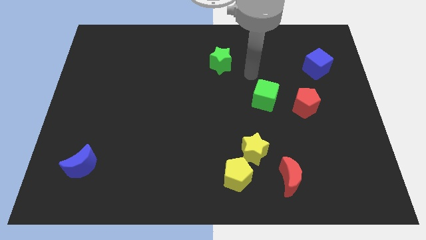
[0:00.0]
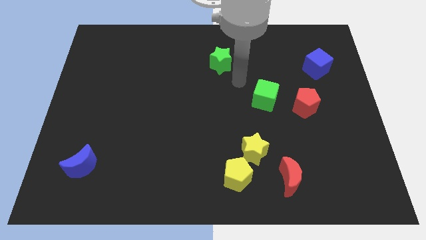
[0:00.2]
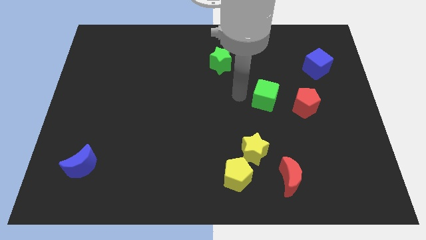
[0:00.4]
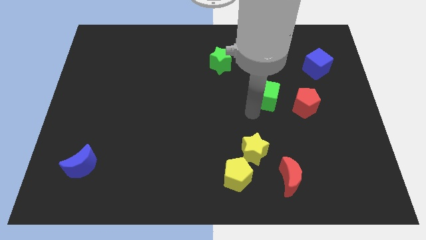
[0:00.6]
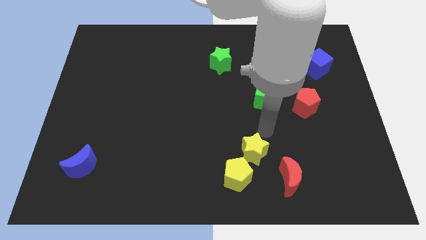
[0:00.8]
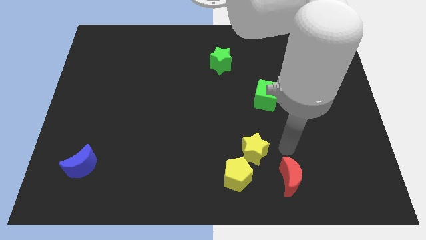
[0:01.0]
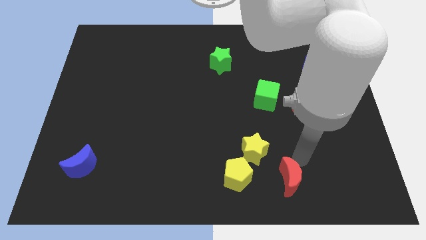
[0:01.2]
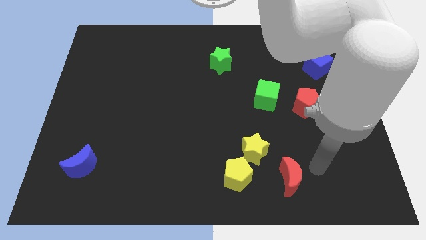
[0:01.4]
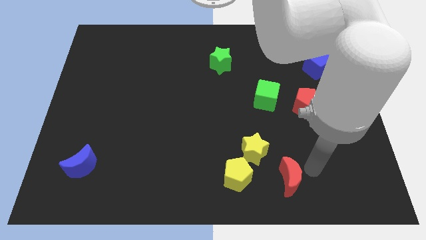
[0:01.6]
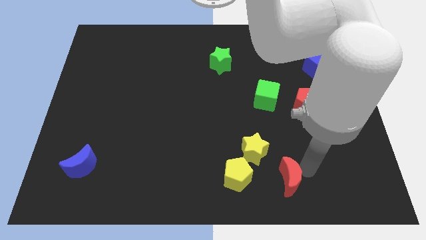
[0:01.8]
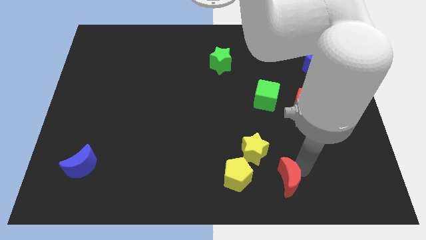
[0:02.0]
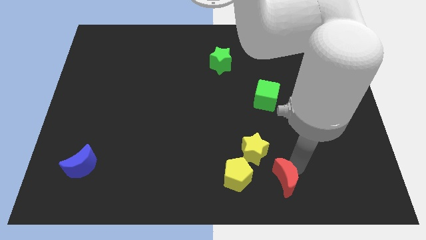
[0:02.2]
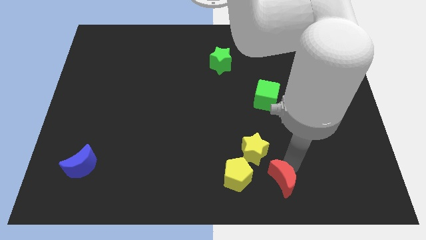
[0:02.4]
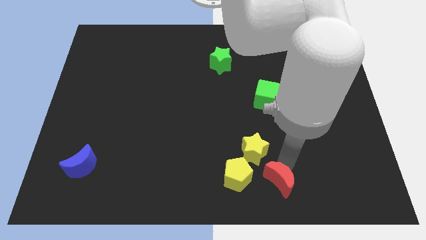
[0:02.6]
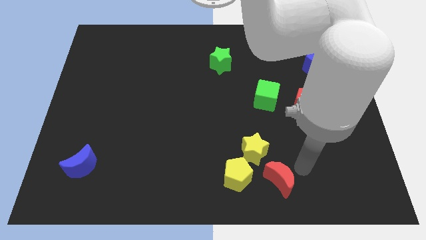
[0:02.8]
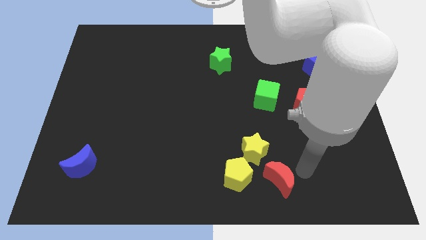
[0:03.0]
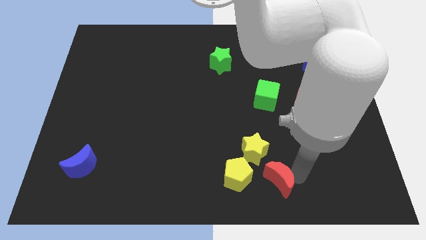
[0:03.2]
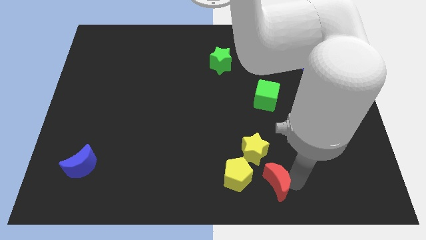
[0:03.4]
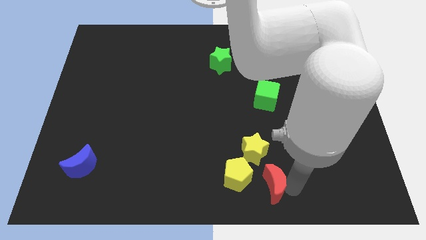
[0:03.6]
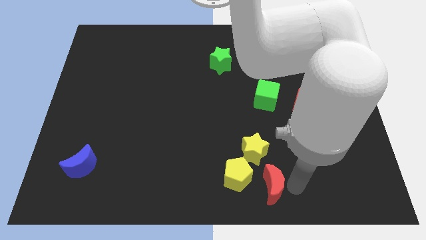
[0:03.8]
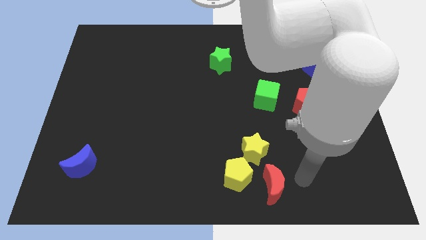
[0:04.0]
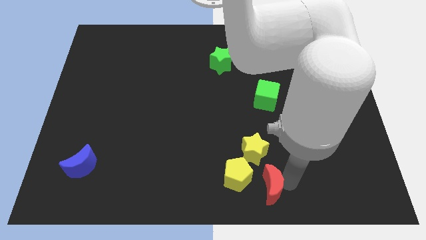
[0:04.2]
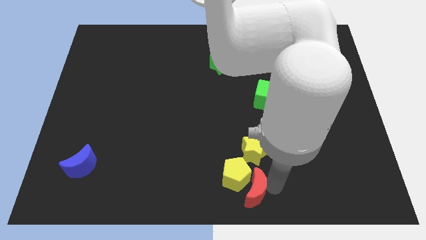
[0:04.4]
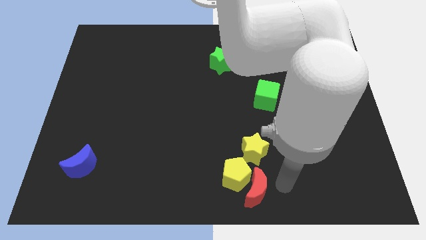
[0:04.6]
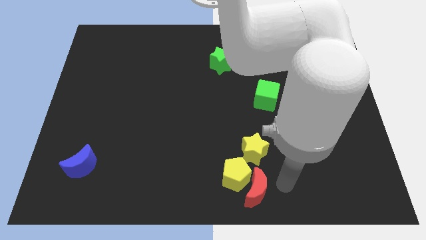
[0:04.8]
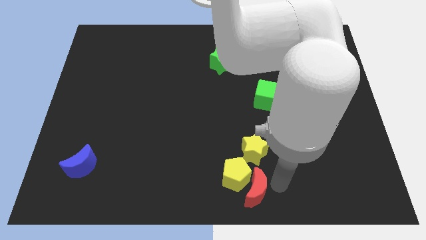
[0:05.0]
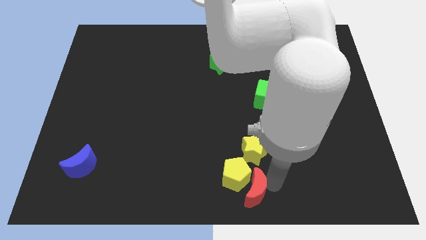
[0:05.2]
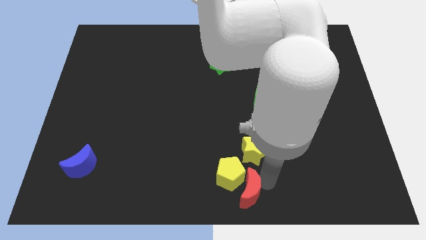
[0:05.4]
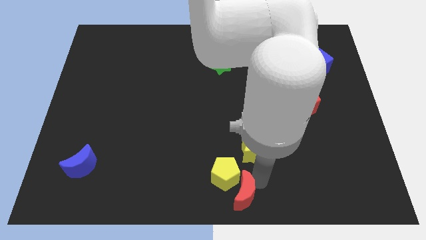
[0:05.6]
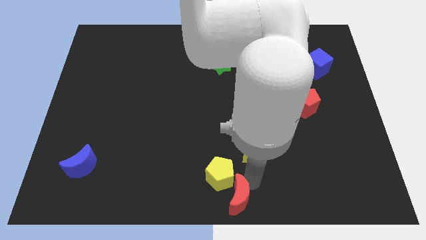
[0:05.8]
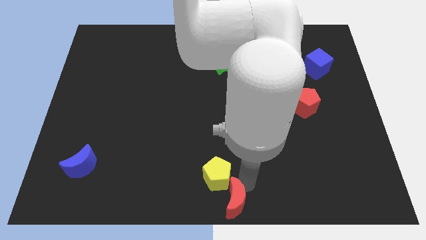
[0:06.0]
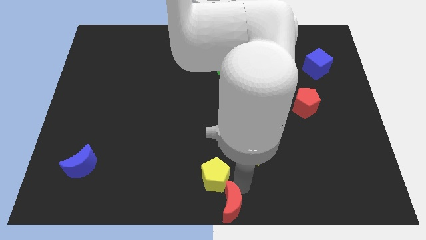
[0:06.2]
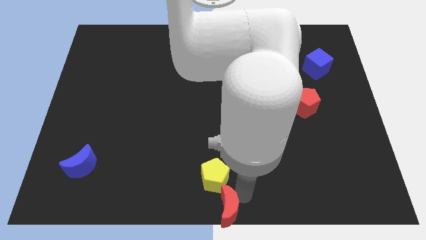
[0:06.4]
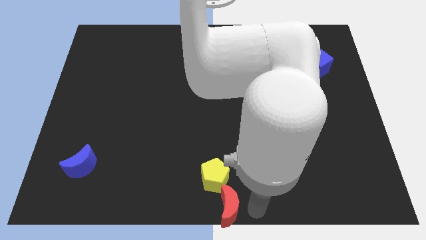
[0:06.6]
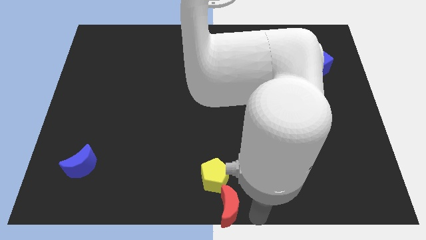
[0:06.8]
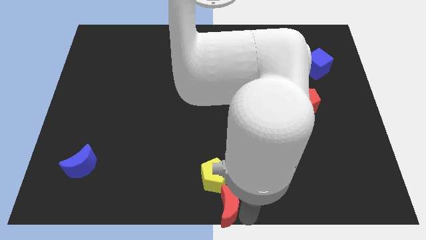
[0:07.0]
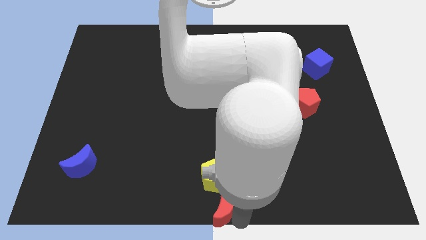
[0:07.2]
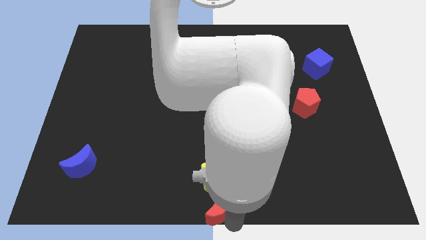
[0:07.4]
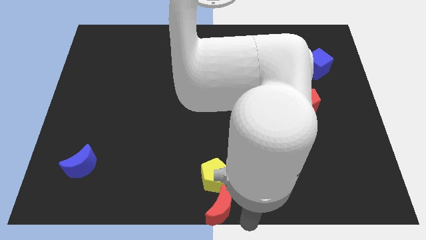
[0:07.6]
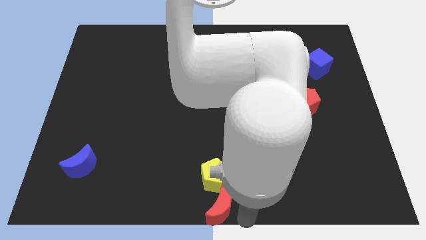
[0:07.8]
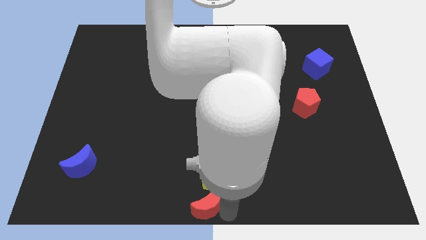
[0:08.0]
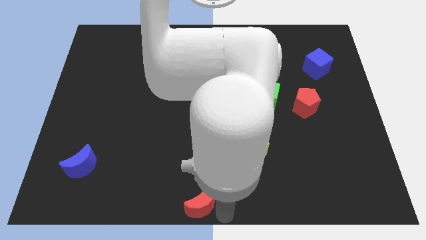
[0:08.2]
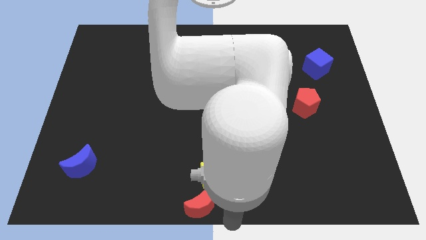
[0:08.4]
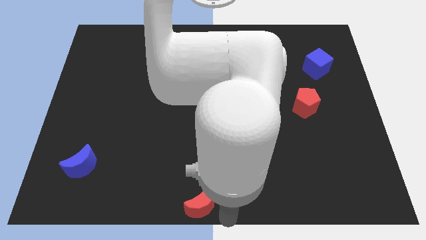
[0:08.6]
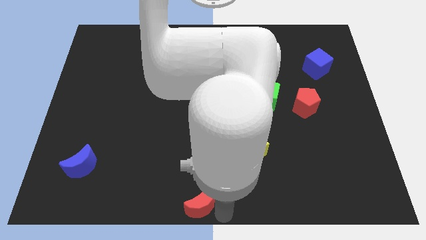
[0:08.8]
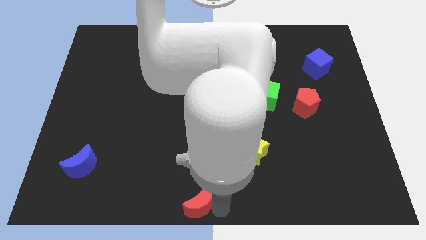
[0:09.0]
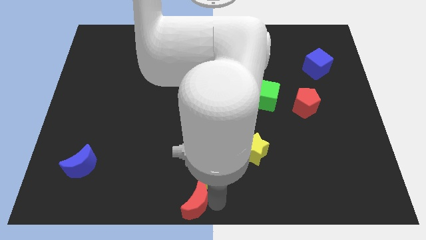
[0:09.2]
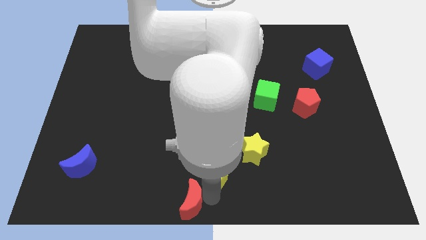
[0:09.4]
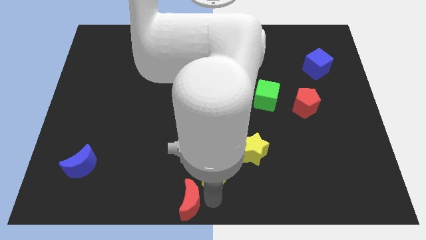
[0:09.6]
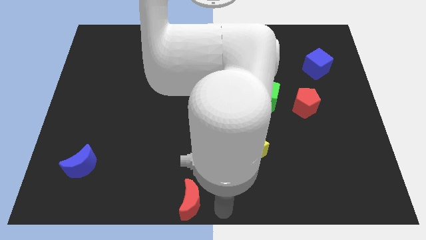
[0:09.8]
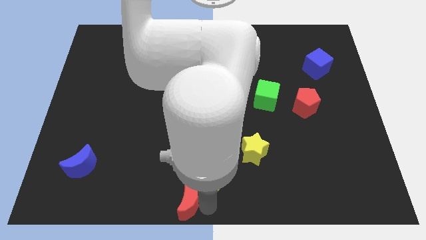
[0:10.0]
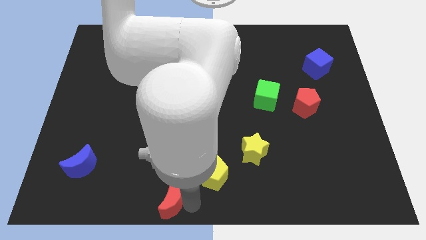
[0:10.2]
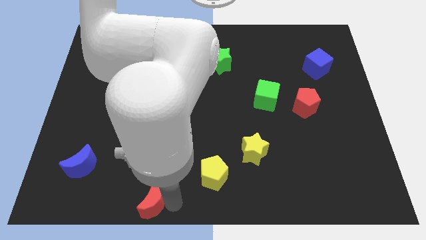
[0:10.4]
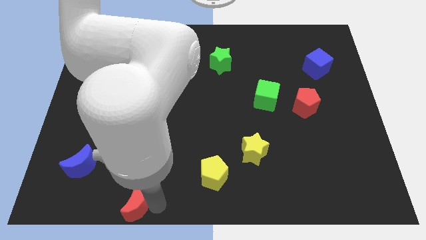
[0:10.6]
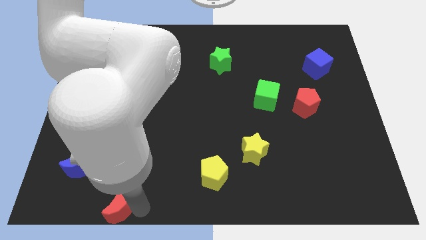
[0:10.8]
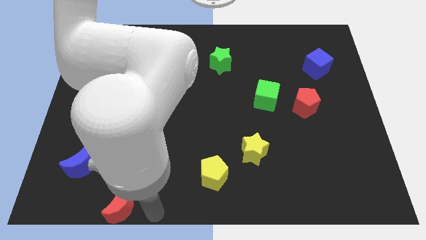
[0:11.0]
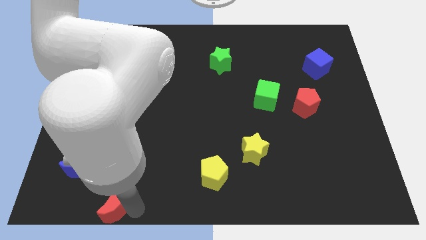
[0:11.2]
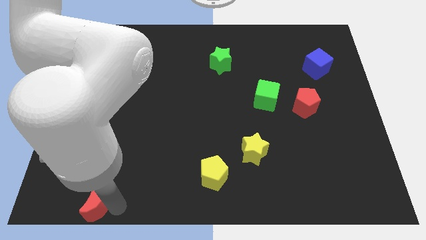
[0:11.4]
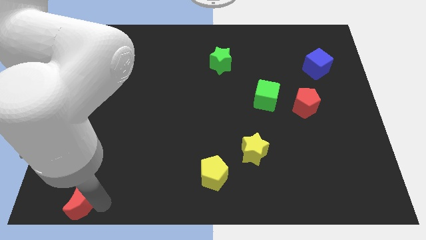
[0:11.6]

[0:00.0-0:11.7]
push the red moon to the bottom left corner
